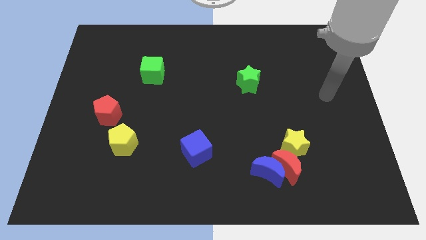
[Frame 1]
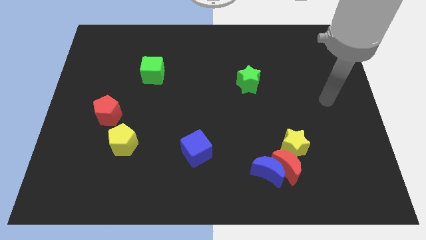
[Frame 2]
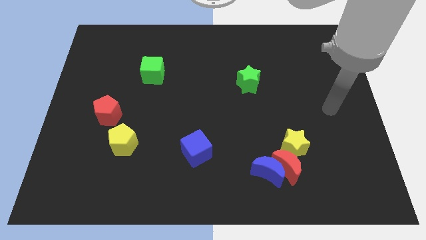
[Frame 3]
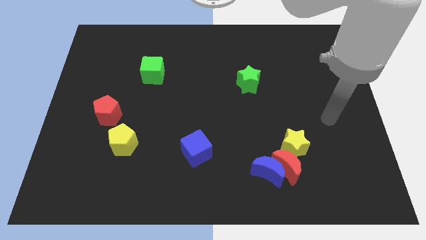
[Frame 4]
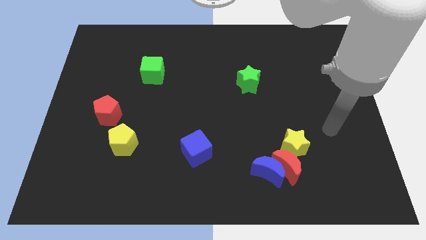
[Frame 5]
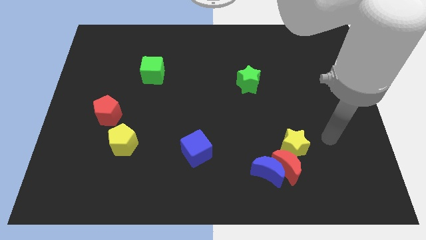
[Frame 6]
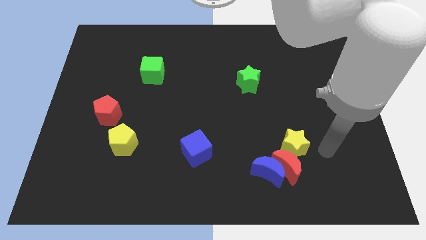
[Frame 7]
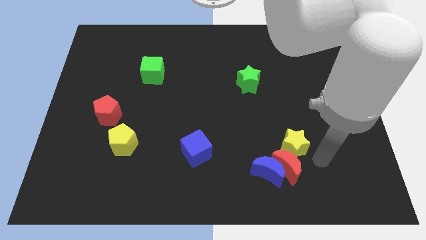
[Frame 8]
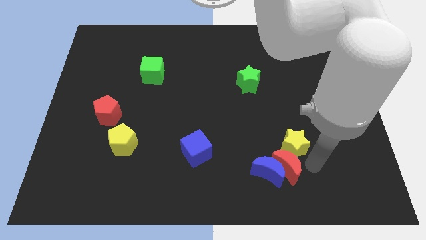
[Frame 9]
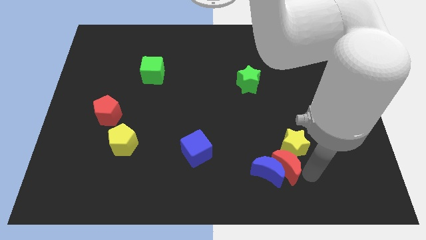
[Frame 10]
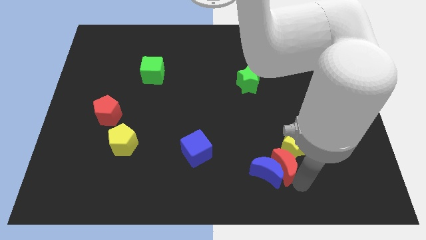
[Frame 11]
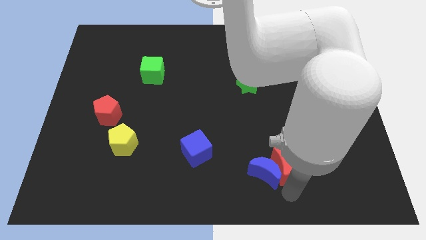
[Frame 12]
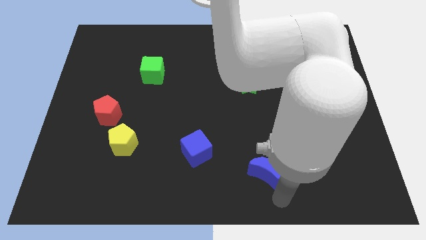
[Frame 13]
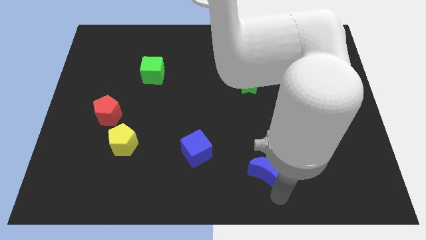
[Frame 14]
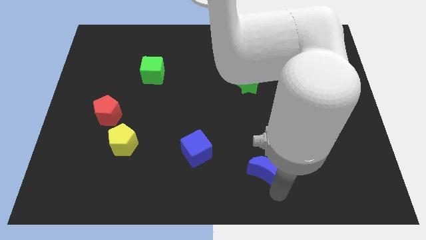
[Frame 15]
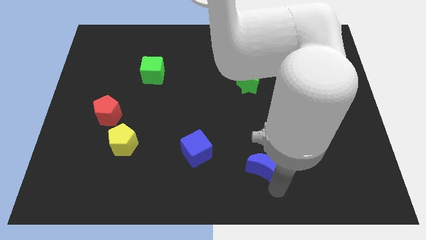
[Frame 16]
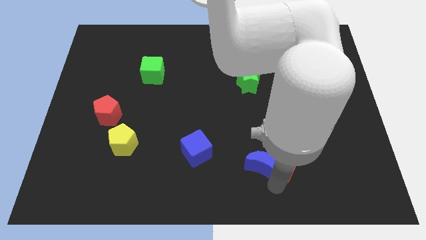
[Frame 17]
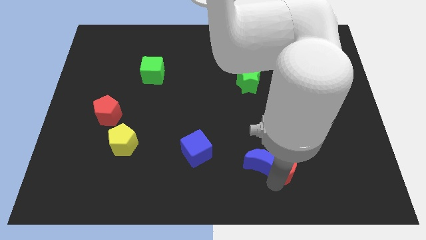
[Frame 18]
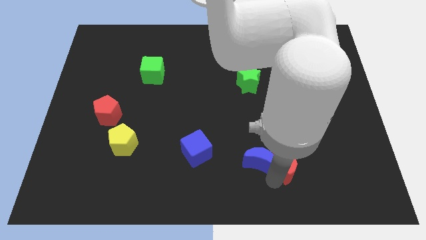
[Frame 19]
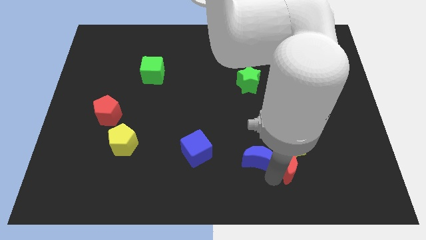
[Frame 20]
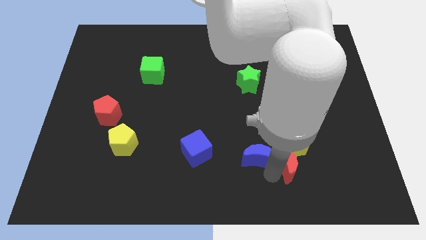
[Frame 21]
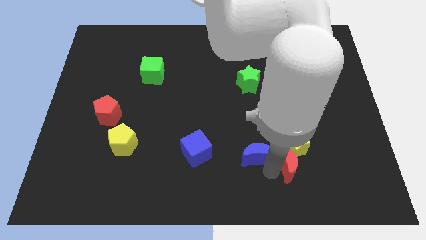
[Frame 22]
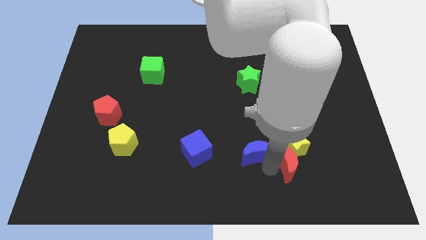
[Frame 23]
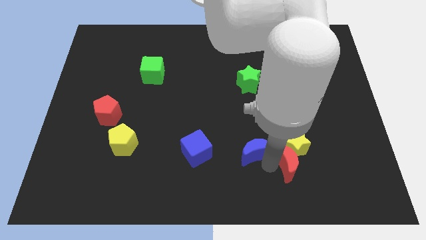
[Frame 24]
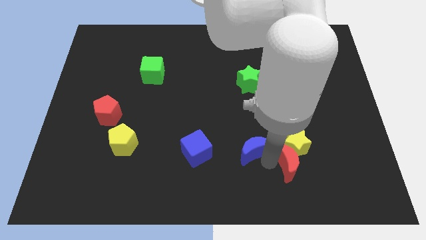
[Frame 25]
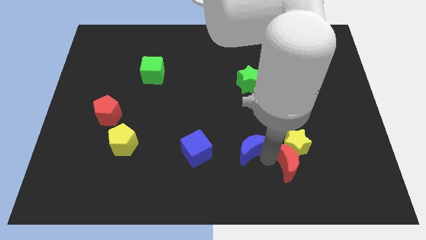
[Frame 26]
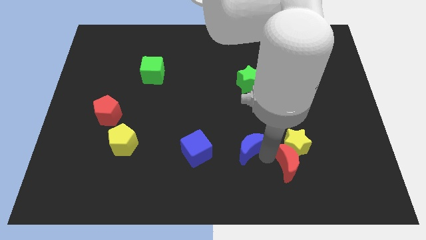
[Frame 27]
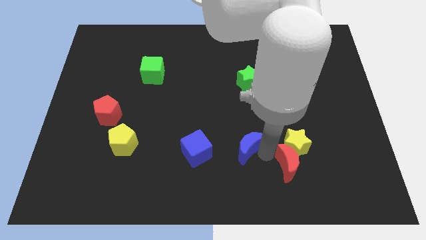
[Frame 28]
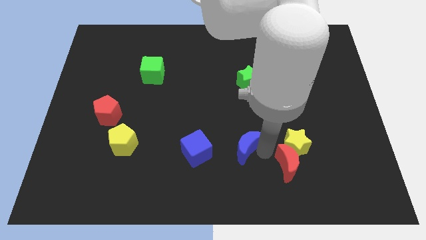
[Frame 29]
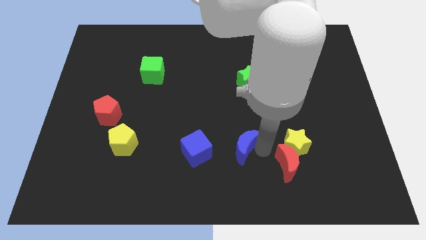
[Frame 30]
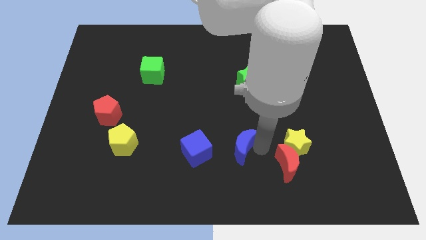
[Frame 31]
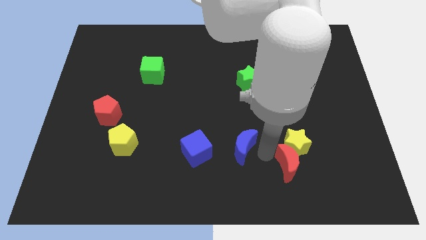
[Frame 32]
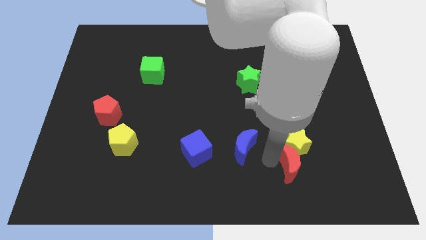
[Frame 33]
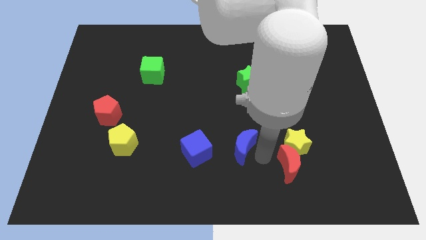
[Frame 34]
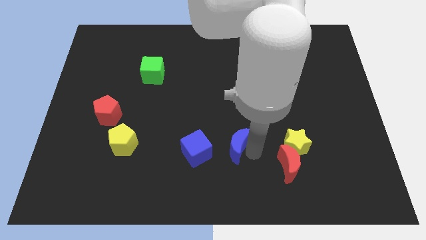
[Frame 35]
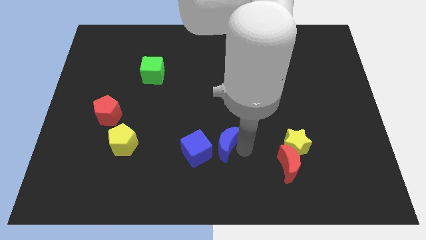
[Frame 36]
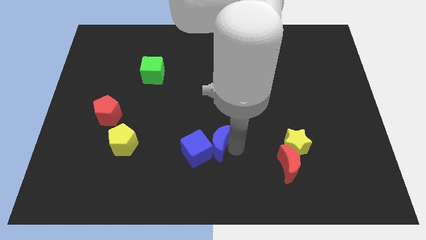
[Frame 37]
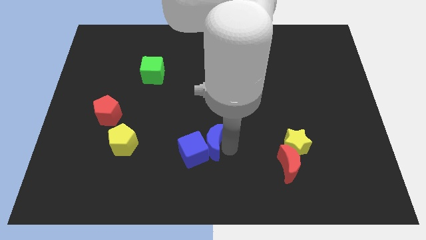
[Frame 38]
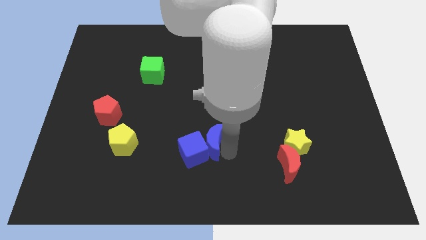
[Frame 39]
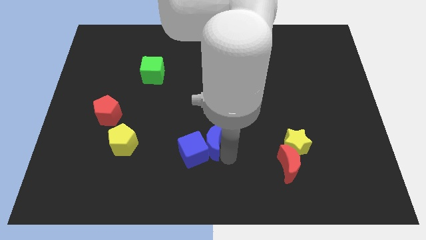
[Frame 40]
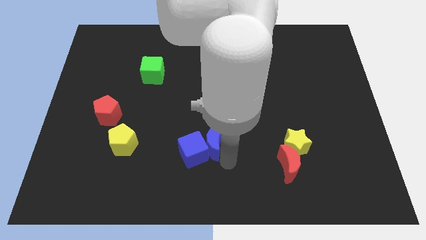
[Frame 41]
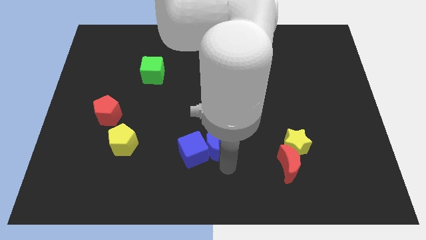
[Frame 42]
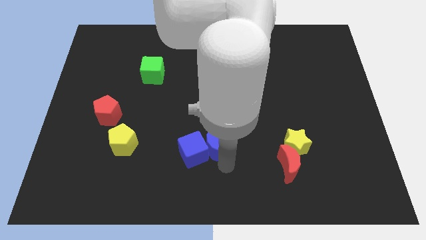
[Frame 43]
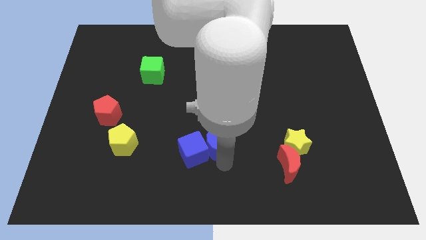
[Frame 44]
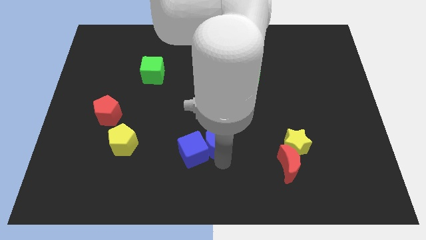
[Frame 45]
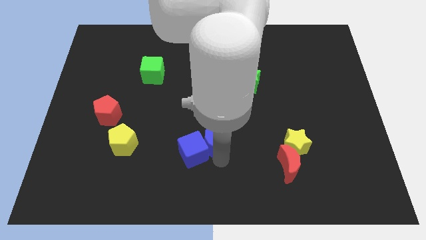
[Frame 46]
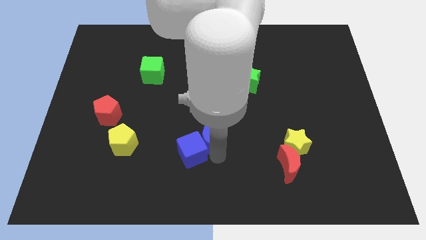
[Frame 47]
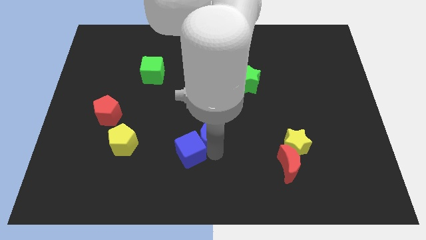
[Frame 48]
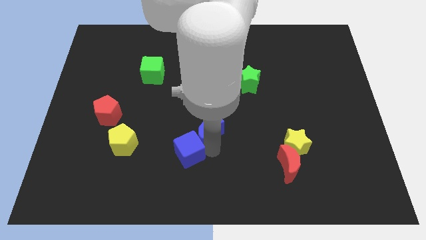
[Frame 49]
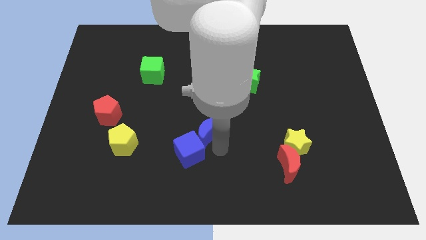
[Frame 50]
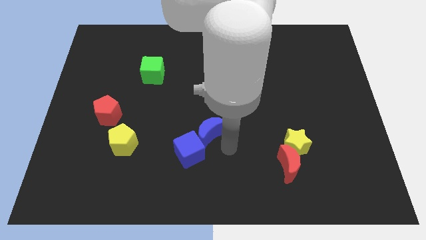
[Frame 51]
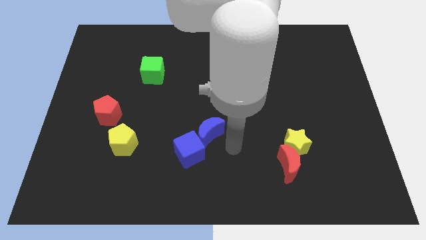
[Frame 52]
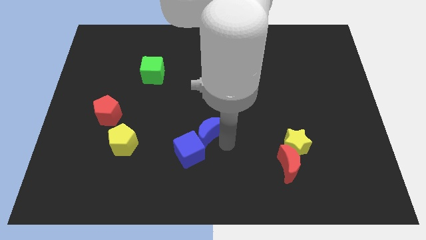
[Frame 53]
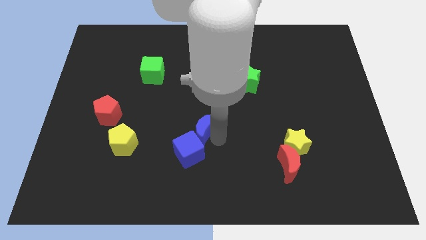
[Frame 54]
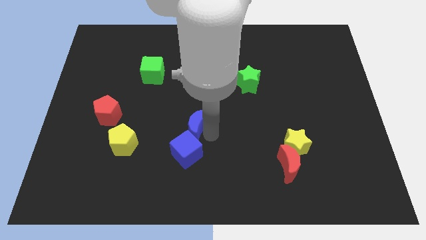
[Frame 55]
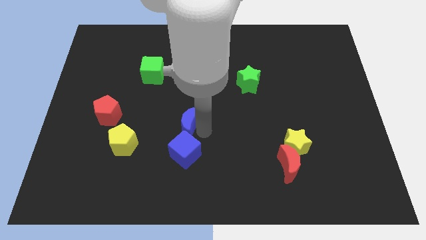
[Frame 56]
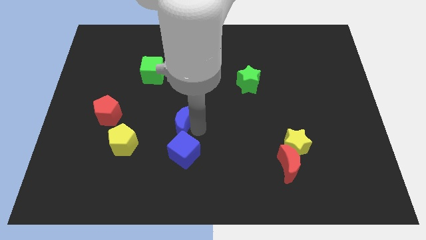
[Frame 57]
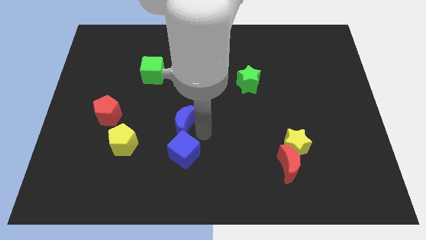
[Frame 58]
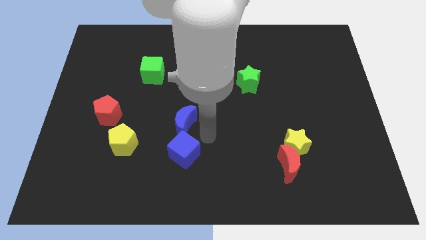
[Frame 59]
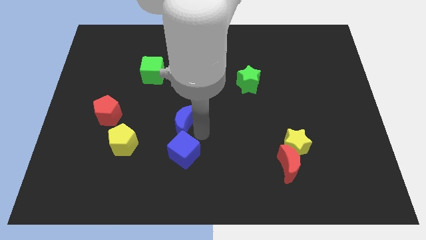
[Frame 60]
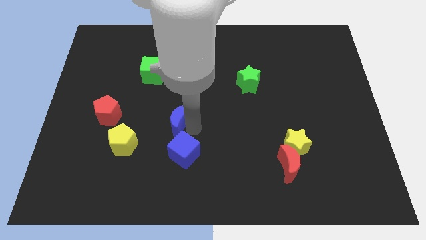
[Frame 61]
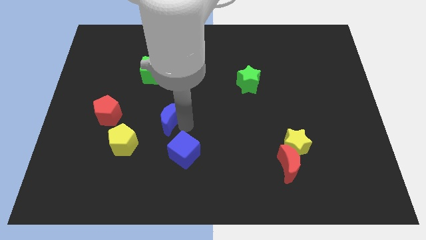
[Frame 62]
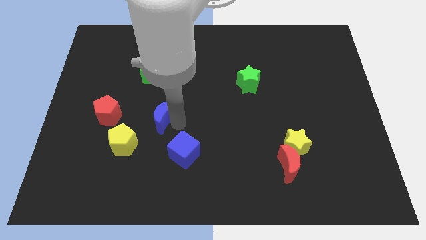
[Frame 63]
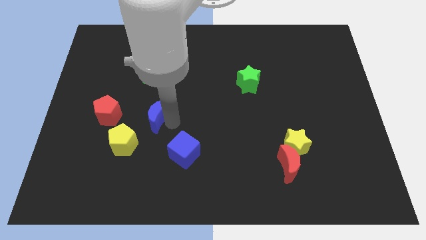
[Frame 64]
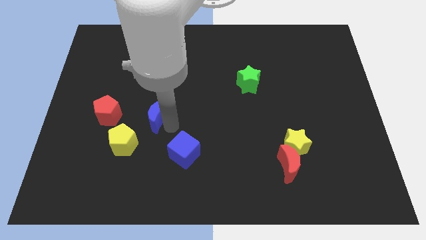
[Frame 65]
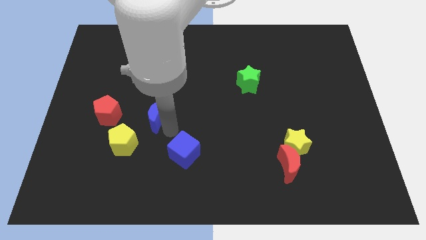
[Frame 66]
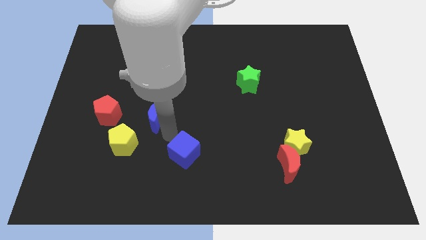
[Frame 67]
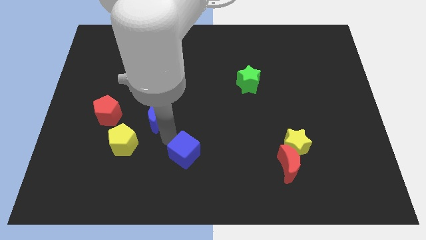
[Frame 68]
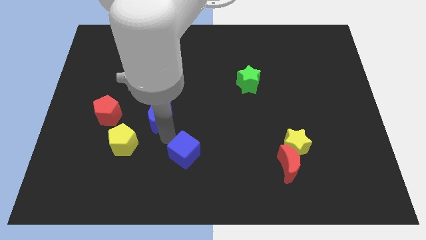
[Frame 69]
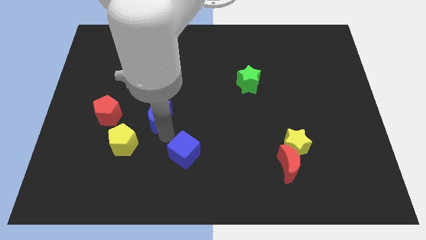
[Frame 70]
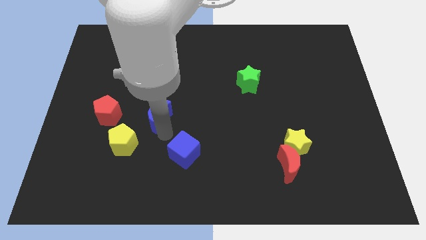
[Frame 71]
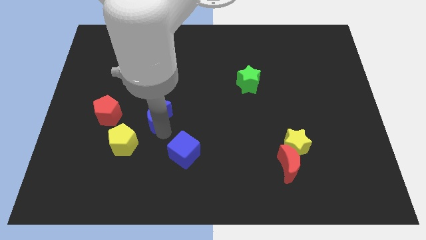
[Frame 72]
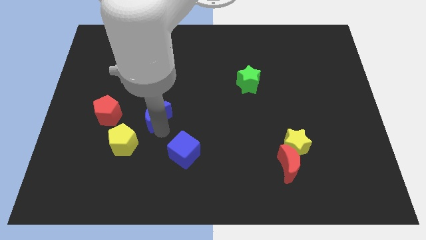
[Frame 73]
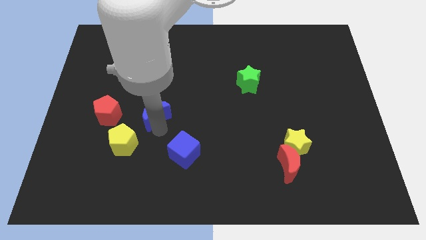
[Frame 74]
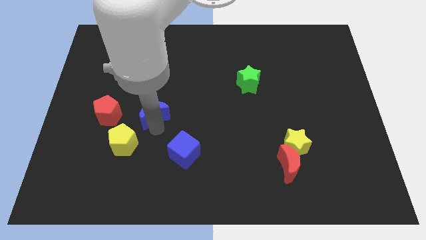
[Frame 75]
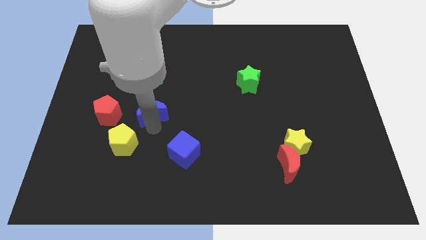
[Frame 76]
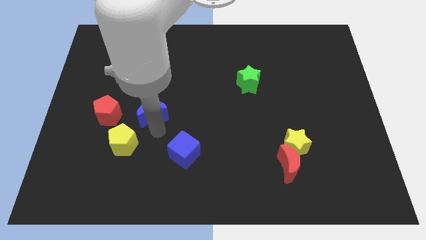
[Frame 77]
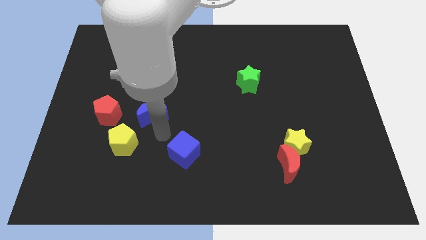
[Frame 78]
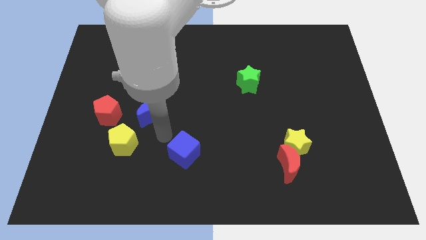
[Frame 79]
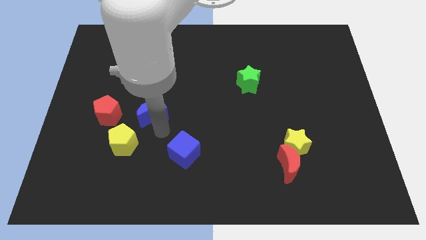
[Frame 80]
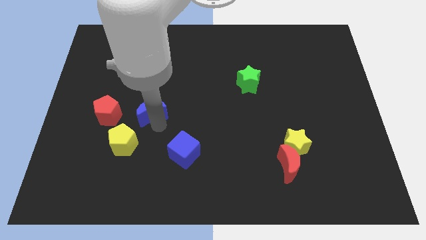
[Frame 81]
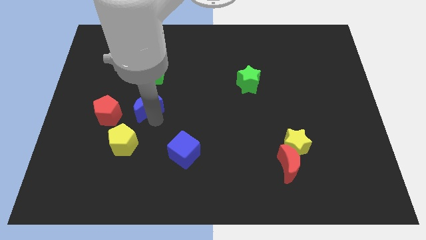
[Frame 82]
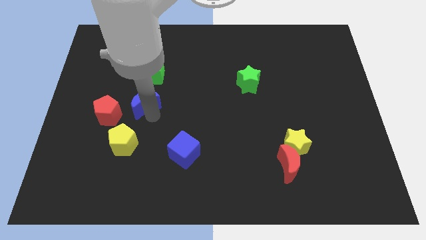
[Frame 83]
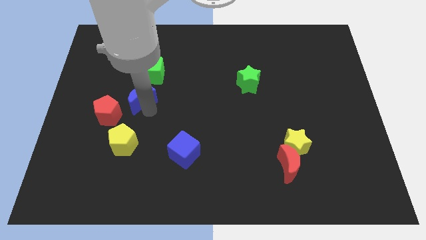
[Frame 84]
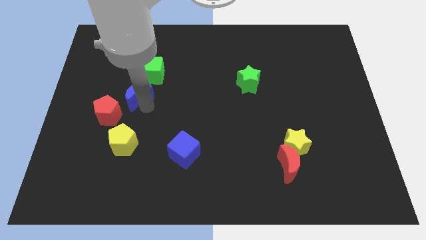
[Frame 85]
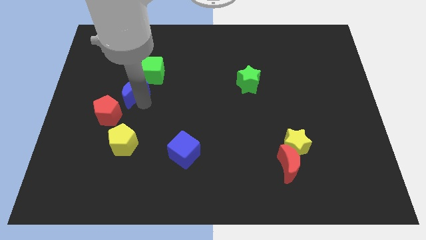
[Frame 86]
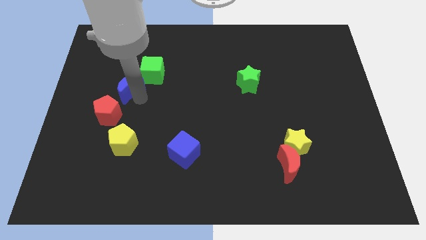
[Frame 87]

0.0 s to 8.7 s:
slide the blue moon to the top of the red pentagon
